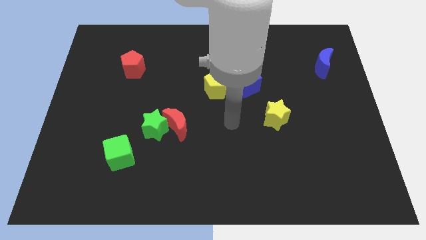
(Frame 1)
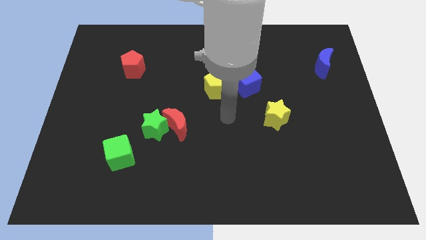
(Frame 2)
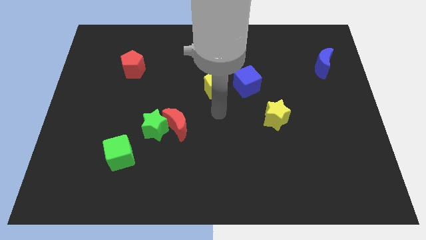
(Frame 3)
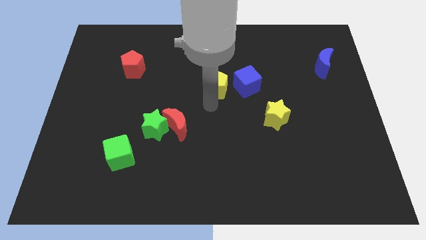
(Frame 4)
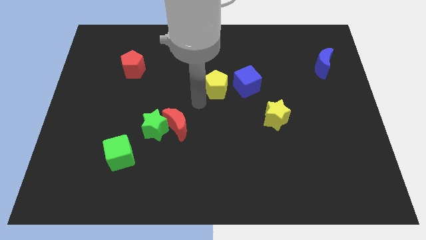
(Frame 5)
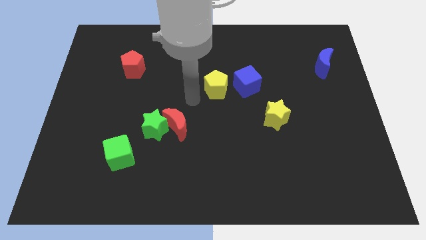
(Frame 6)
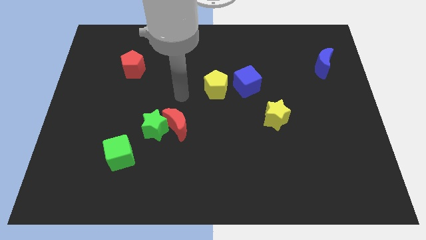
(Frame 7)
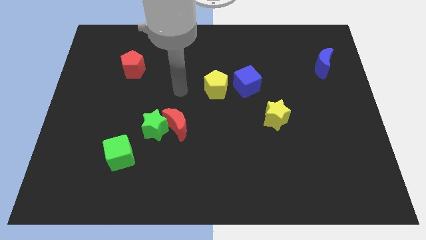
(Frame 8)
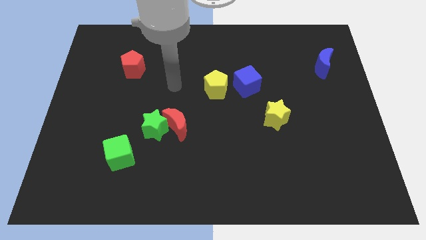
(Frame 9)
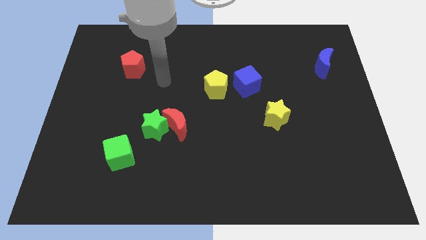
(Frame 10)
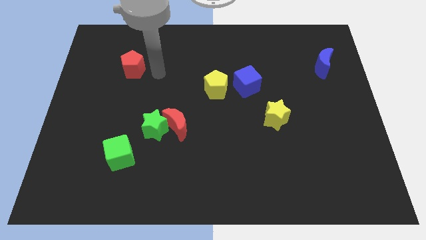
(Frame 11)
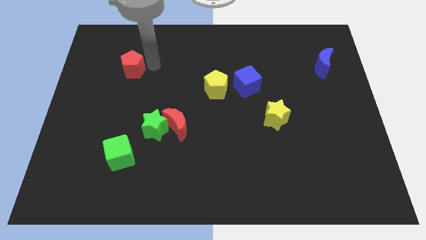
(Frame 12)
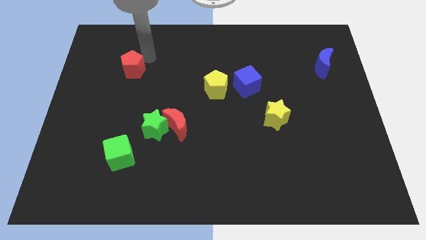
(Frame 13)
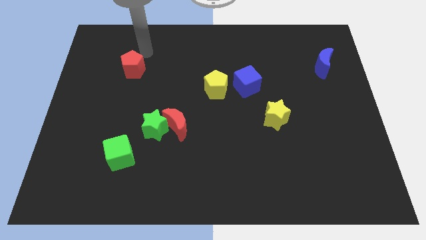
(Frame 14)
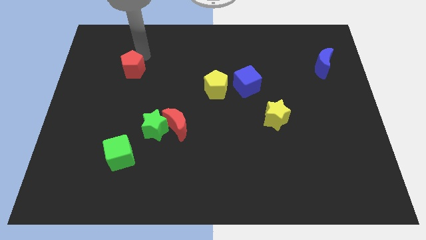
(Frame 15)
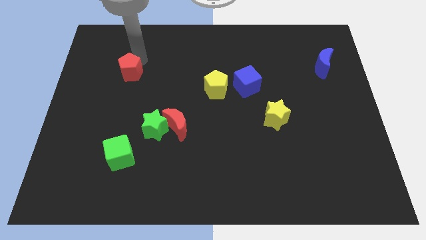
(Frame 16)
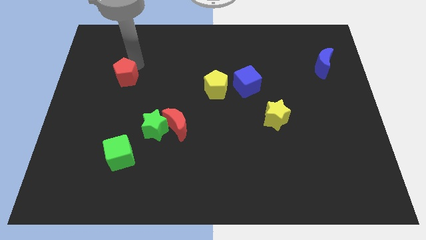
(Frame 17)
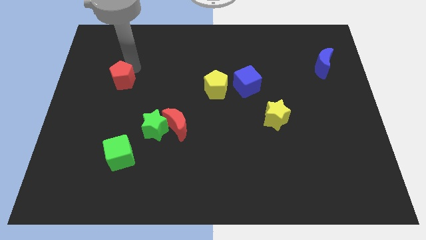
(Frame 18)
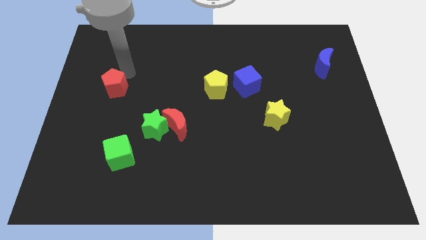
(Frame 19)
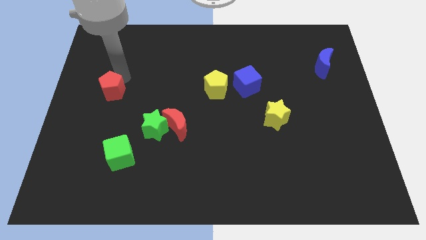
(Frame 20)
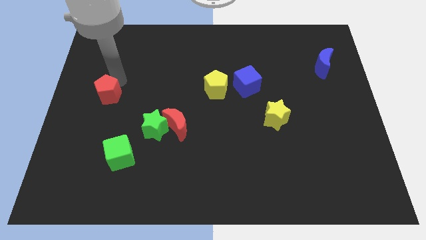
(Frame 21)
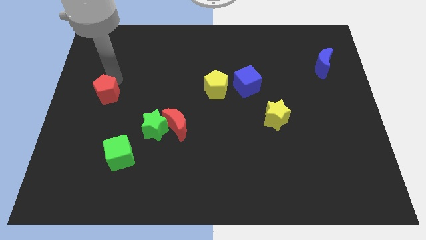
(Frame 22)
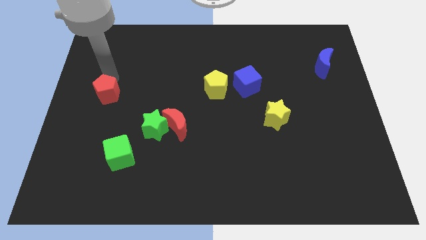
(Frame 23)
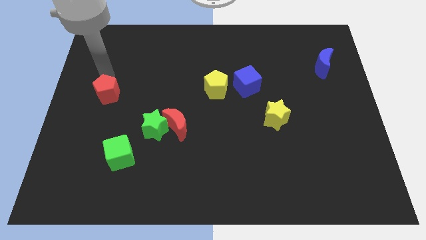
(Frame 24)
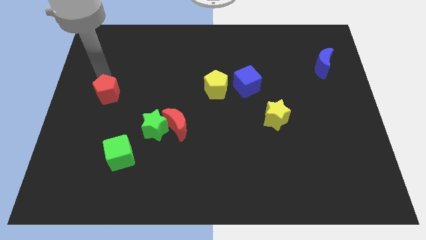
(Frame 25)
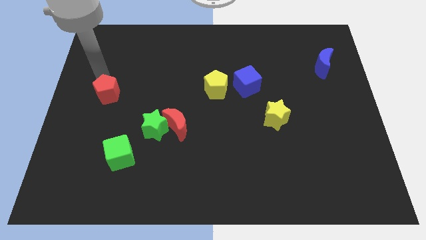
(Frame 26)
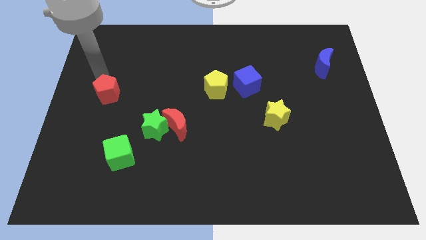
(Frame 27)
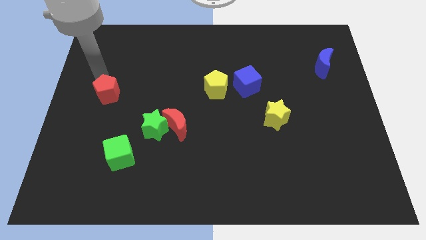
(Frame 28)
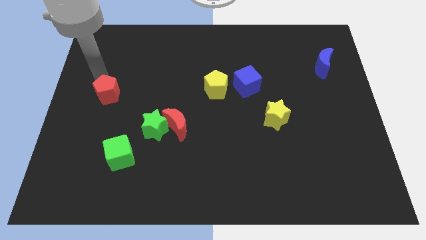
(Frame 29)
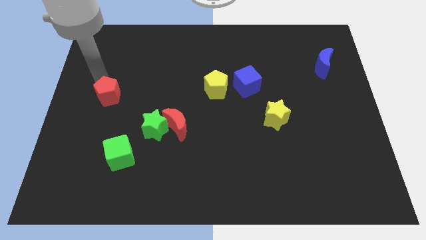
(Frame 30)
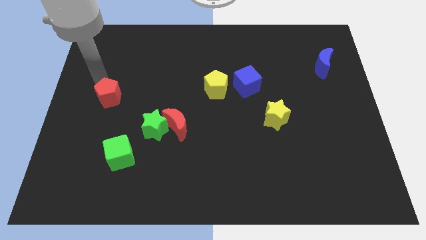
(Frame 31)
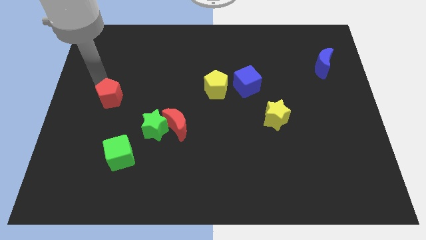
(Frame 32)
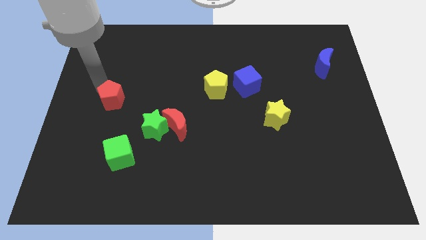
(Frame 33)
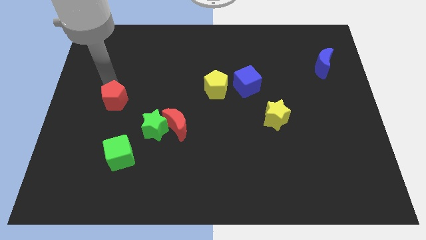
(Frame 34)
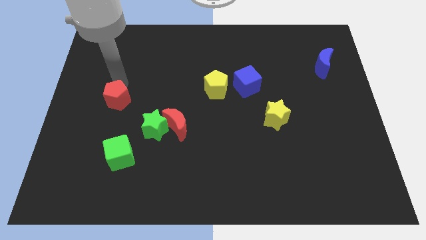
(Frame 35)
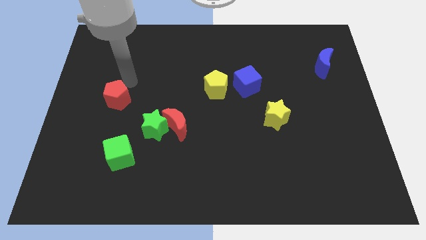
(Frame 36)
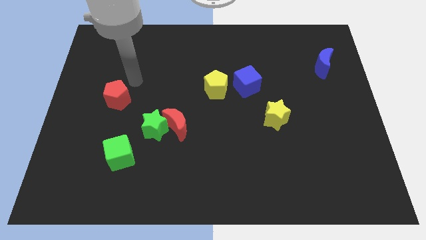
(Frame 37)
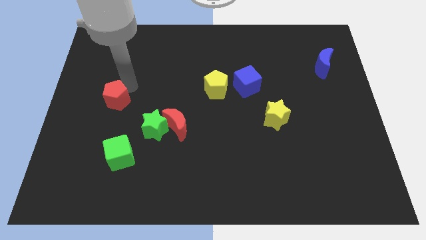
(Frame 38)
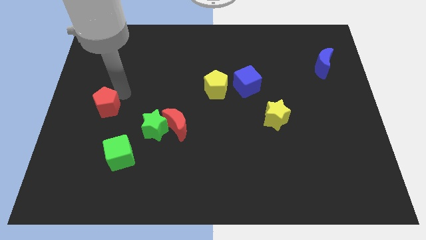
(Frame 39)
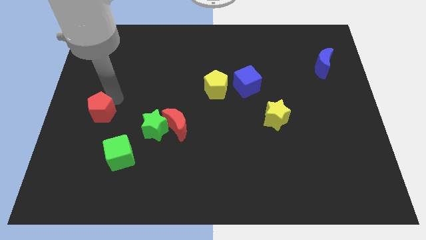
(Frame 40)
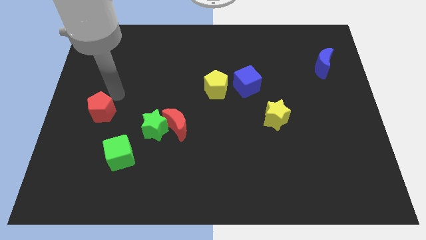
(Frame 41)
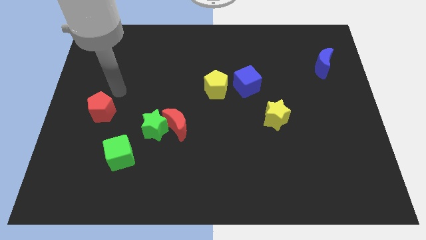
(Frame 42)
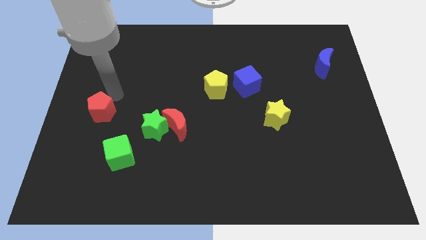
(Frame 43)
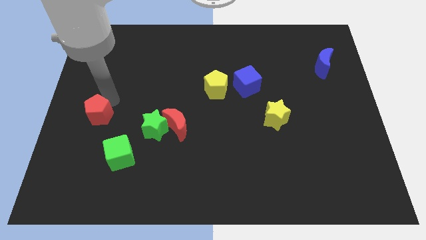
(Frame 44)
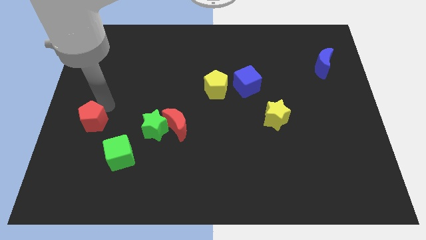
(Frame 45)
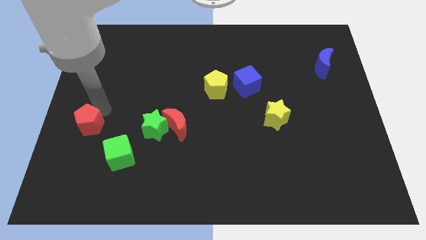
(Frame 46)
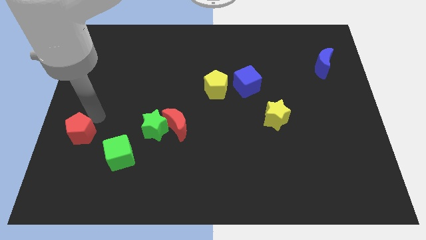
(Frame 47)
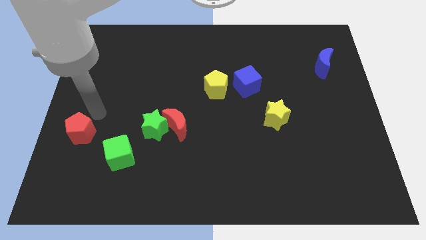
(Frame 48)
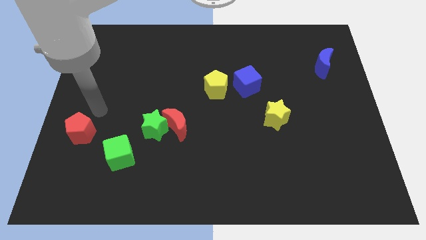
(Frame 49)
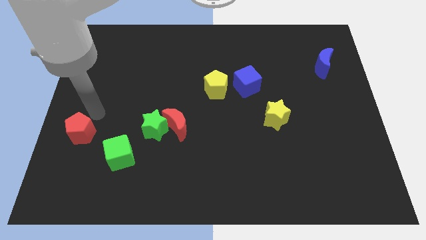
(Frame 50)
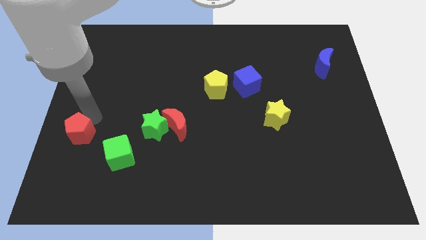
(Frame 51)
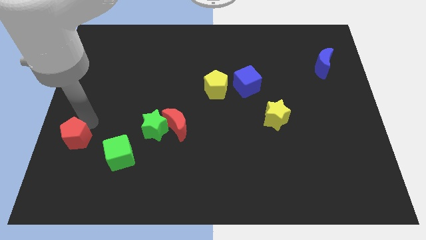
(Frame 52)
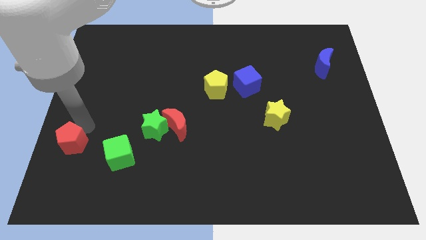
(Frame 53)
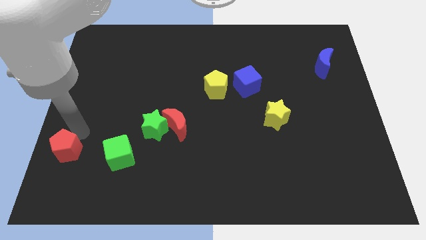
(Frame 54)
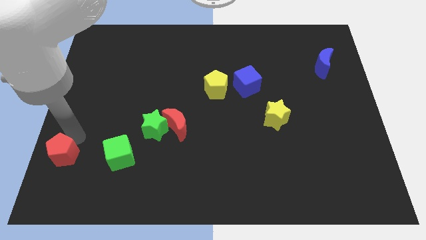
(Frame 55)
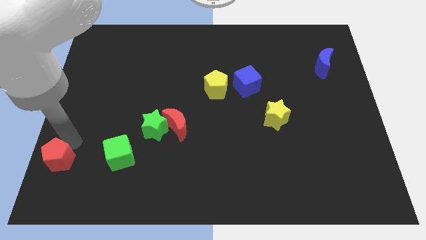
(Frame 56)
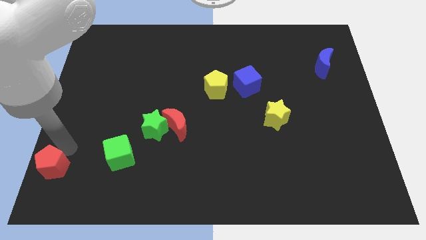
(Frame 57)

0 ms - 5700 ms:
slide the red pentagon to the bottom left

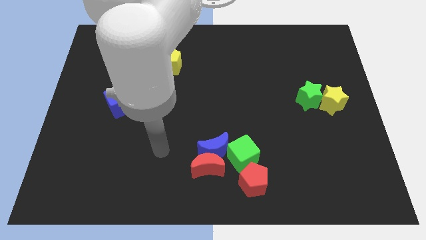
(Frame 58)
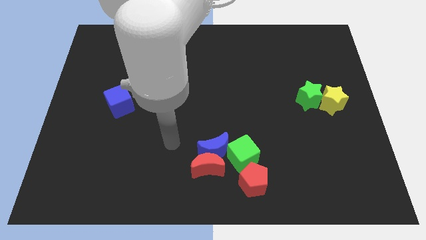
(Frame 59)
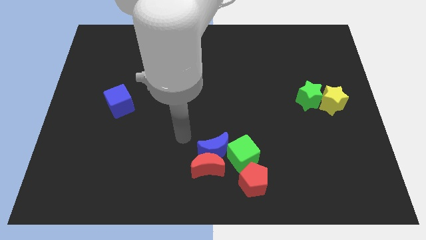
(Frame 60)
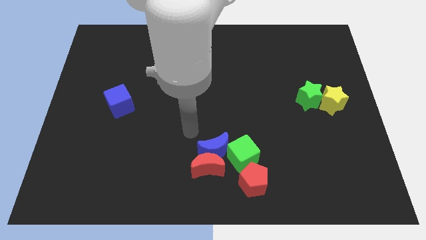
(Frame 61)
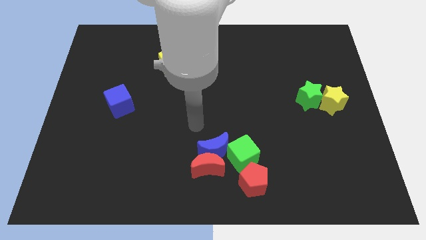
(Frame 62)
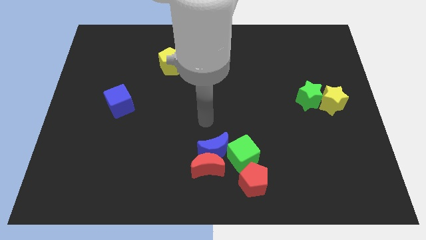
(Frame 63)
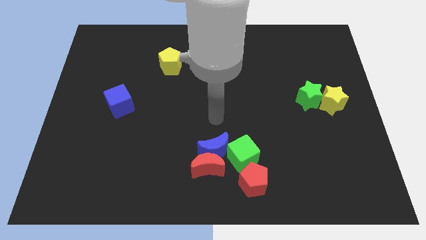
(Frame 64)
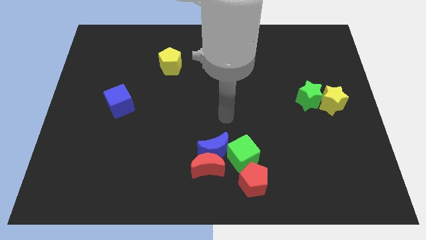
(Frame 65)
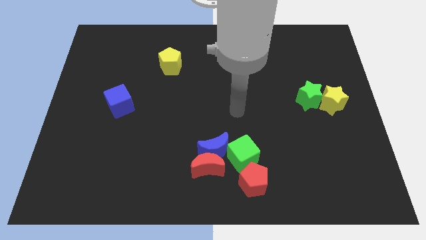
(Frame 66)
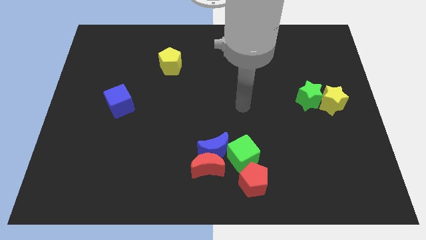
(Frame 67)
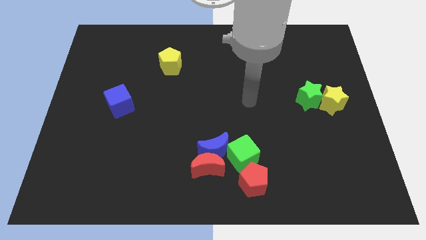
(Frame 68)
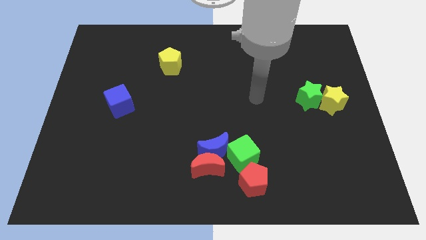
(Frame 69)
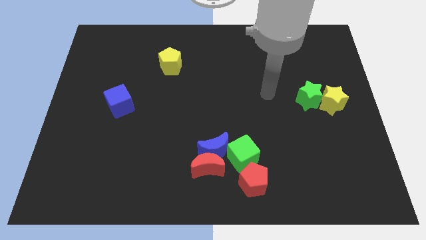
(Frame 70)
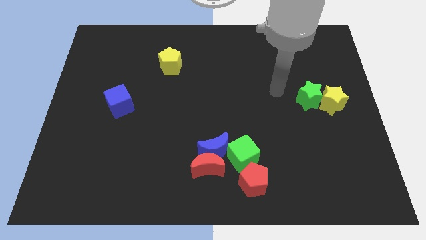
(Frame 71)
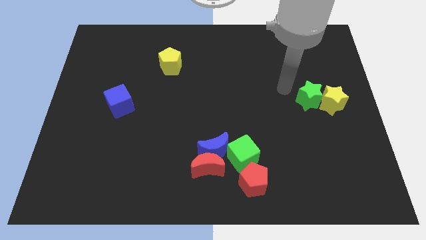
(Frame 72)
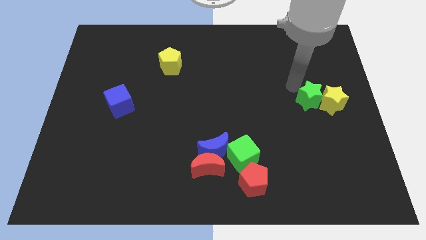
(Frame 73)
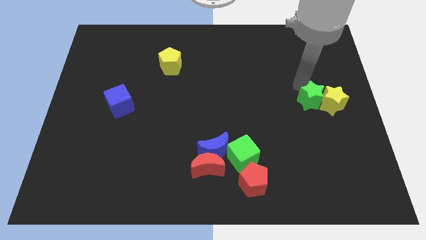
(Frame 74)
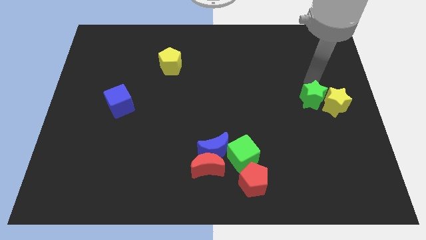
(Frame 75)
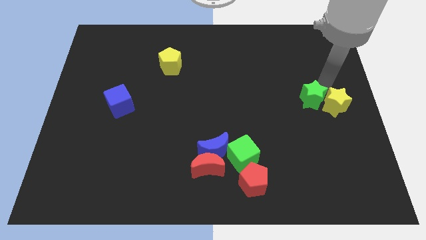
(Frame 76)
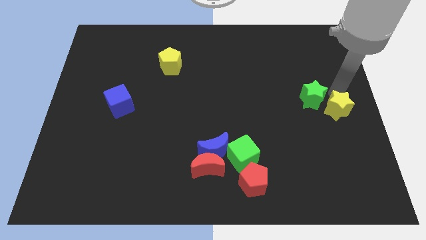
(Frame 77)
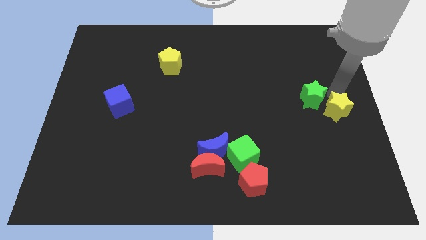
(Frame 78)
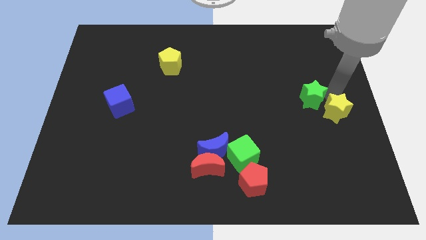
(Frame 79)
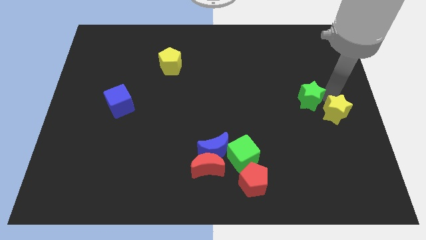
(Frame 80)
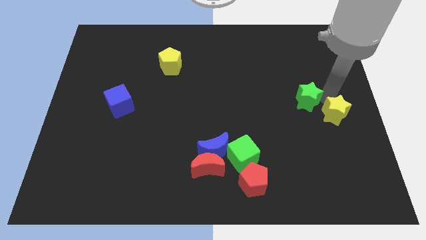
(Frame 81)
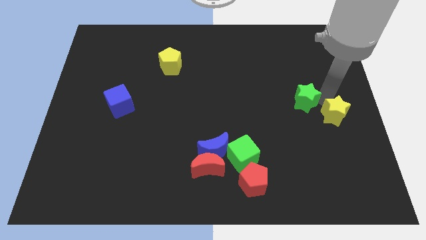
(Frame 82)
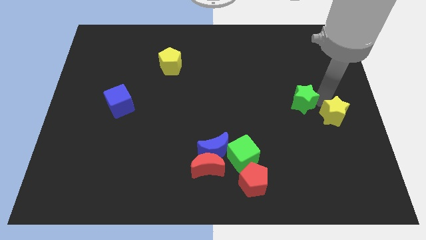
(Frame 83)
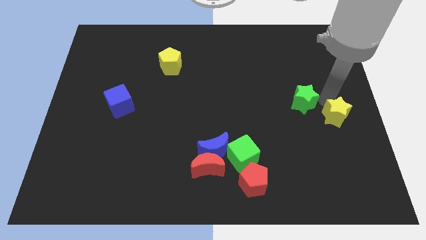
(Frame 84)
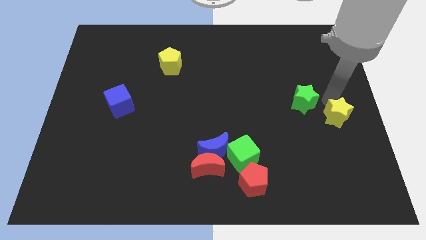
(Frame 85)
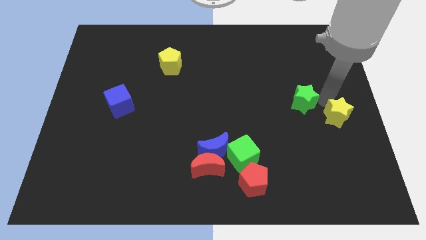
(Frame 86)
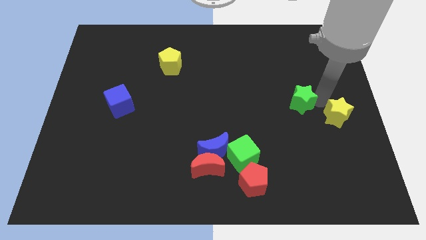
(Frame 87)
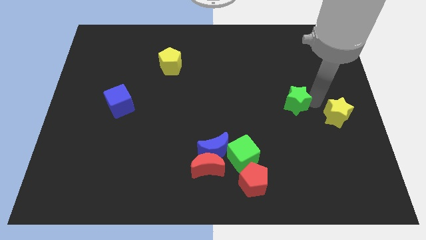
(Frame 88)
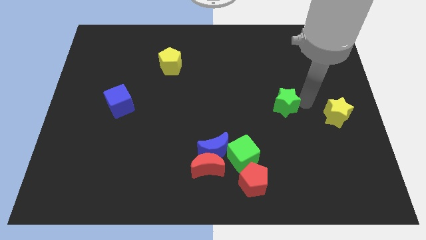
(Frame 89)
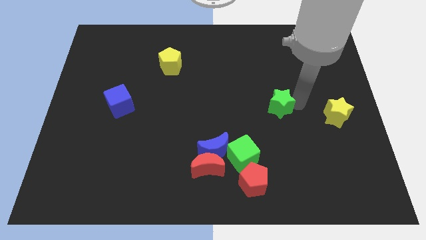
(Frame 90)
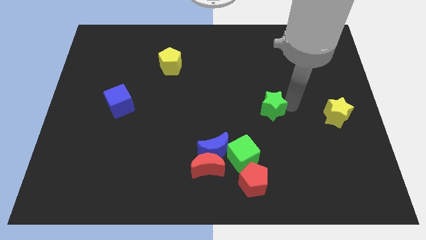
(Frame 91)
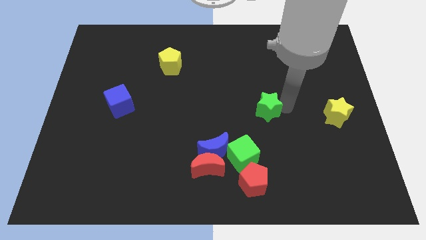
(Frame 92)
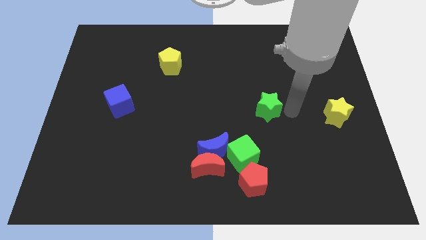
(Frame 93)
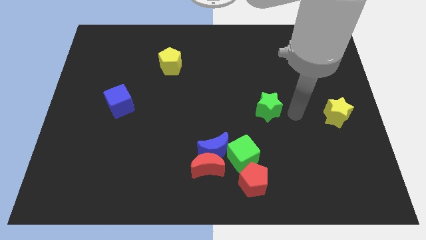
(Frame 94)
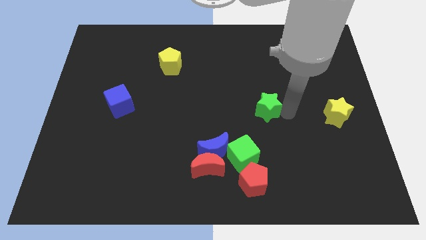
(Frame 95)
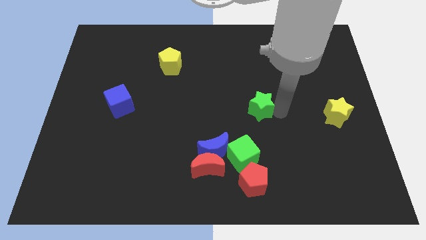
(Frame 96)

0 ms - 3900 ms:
slide the green star to the middle of the board
